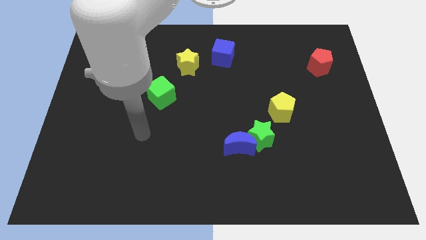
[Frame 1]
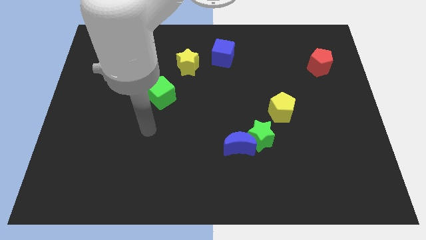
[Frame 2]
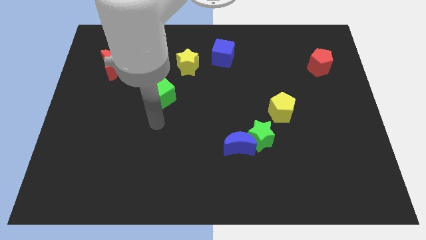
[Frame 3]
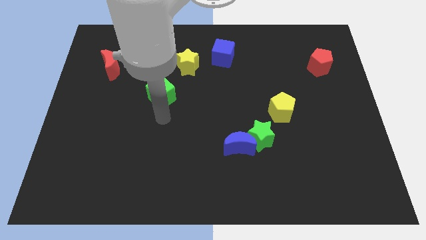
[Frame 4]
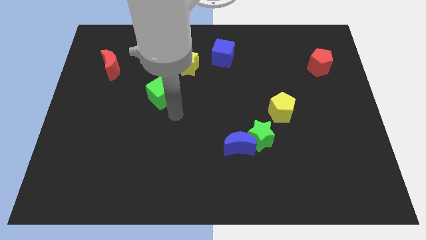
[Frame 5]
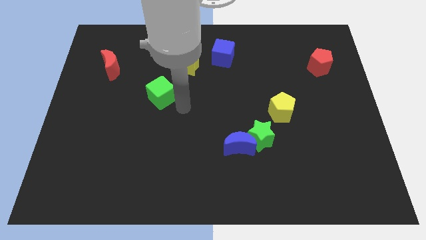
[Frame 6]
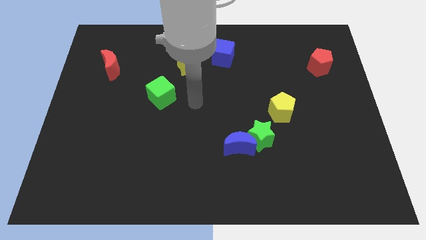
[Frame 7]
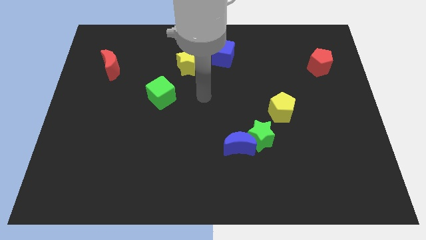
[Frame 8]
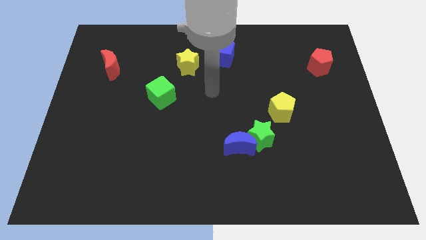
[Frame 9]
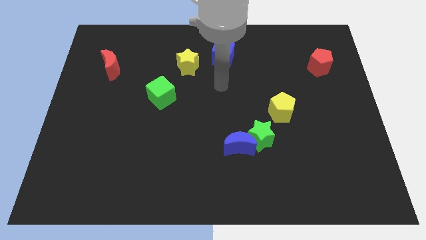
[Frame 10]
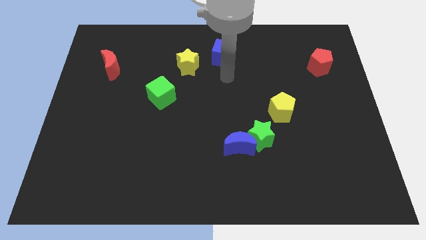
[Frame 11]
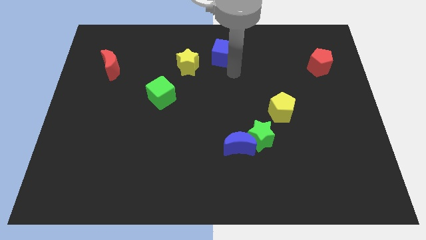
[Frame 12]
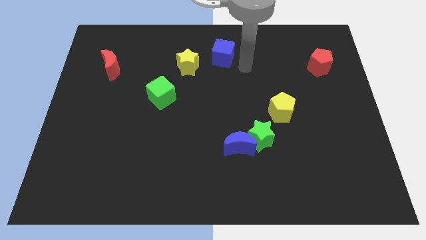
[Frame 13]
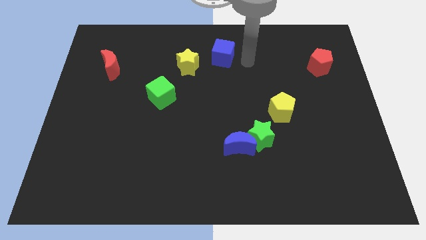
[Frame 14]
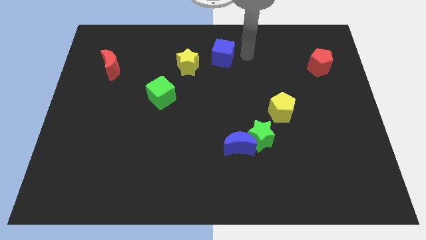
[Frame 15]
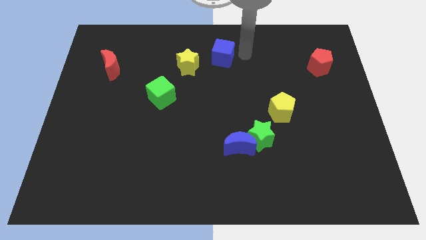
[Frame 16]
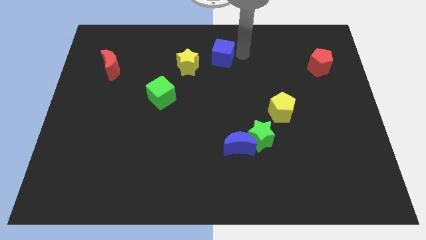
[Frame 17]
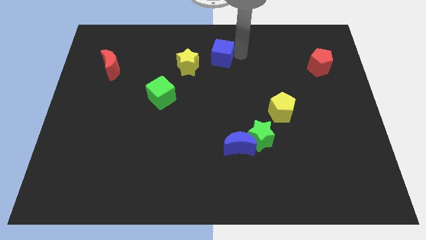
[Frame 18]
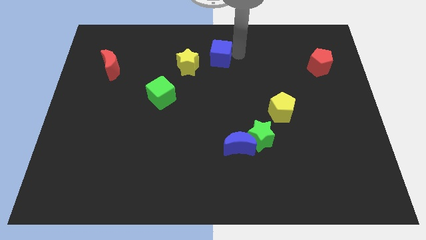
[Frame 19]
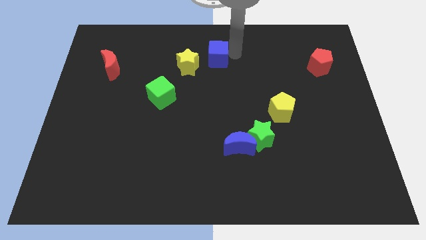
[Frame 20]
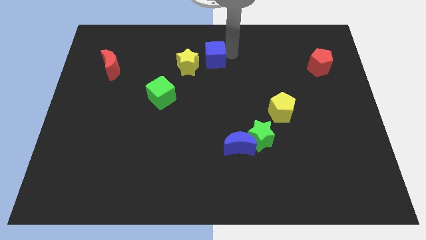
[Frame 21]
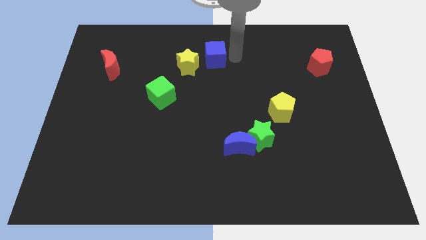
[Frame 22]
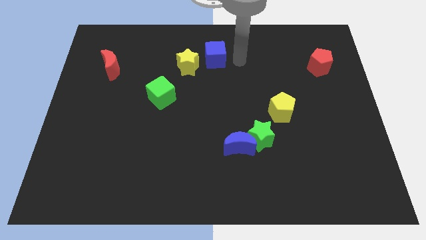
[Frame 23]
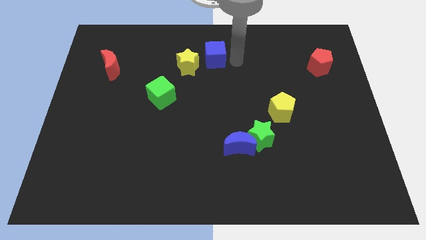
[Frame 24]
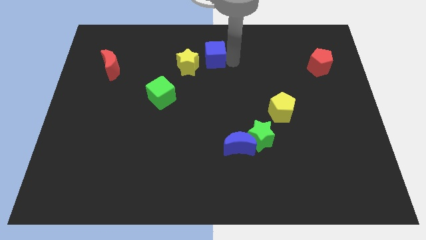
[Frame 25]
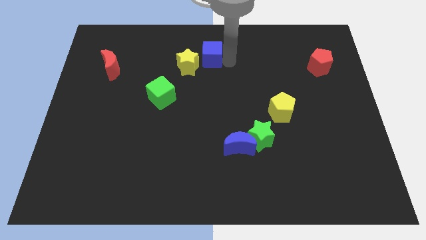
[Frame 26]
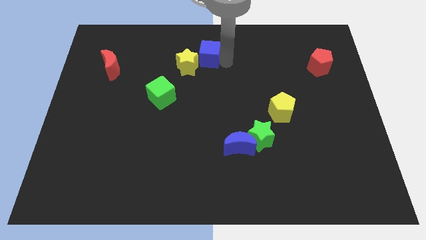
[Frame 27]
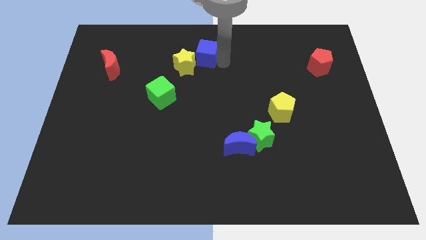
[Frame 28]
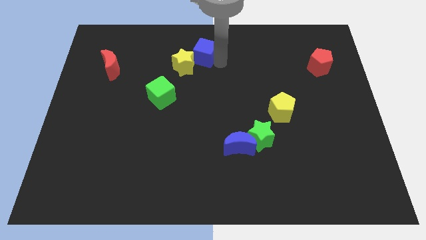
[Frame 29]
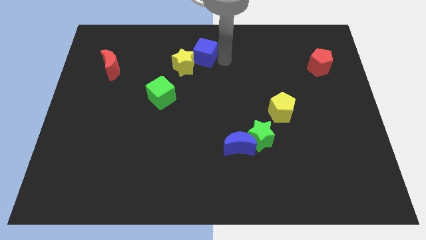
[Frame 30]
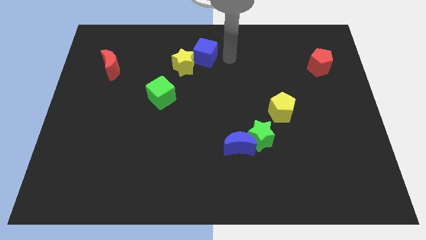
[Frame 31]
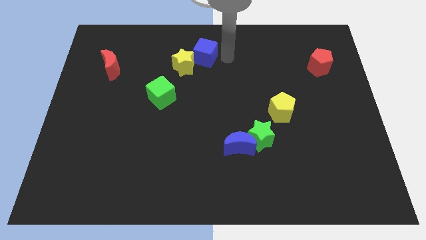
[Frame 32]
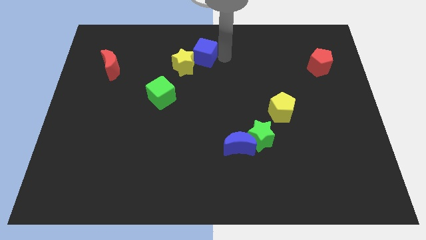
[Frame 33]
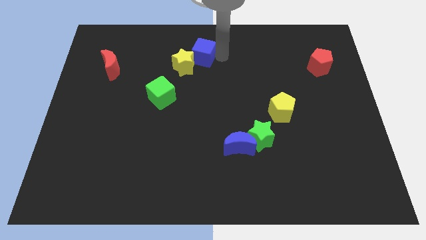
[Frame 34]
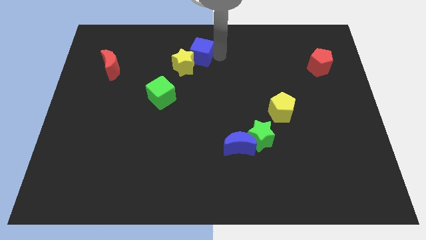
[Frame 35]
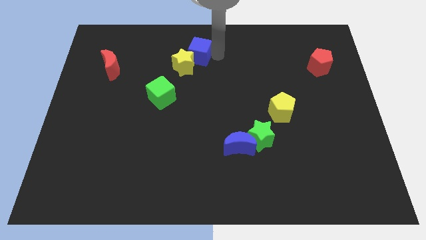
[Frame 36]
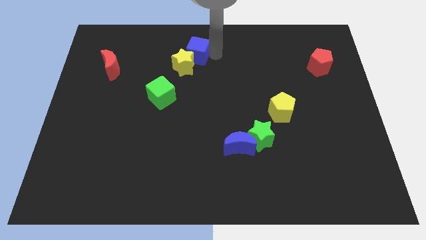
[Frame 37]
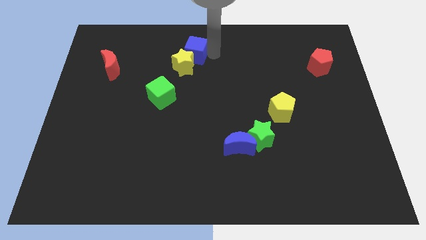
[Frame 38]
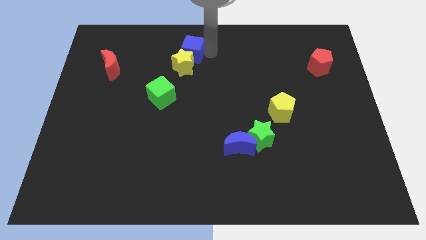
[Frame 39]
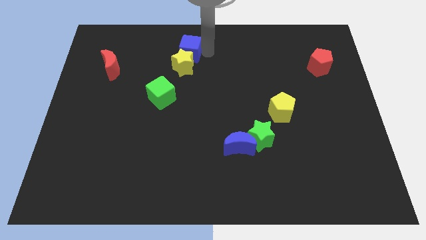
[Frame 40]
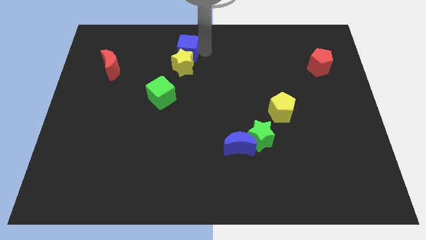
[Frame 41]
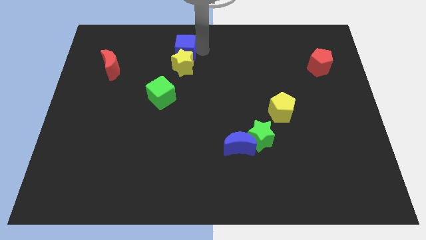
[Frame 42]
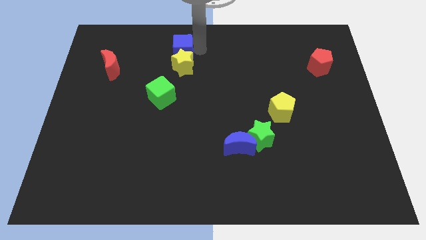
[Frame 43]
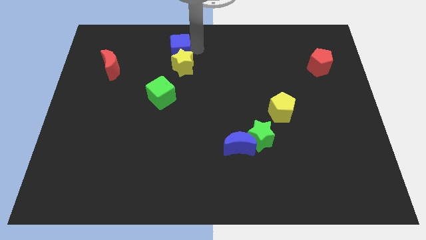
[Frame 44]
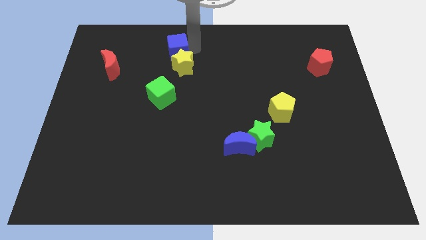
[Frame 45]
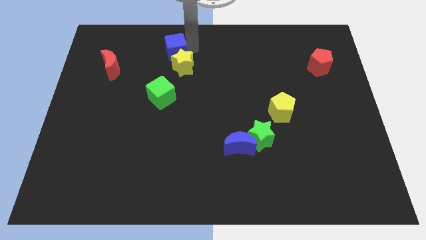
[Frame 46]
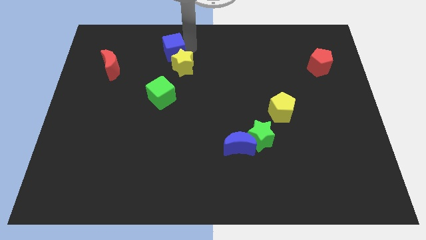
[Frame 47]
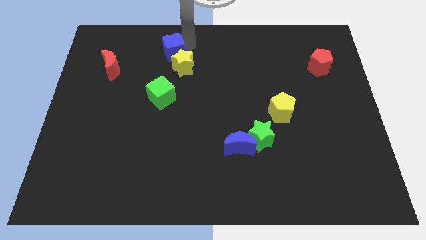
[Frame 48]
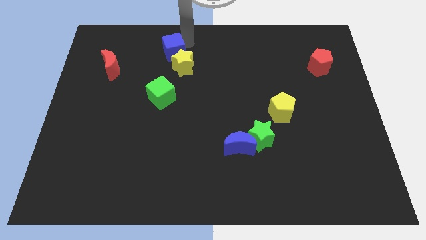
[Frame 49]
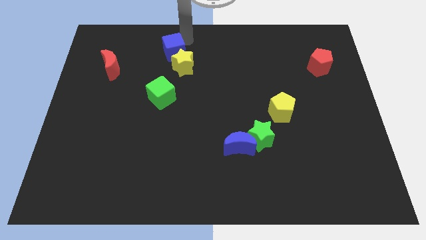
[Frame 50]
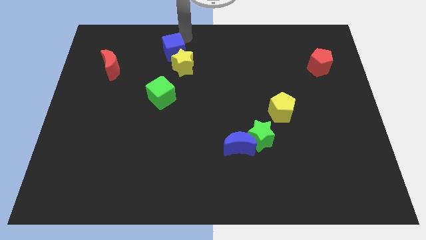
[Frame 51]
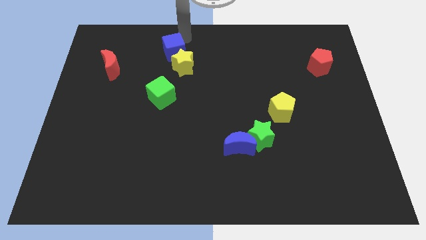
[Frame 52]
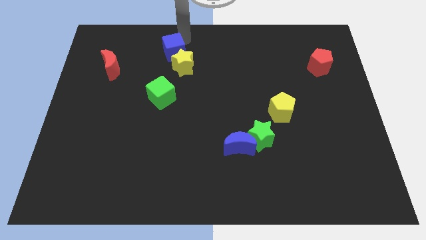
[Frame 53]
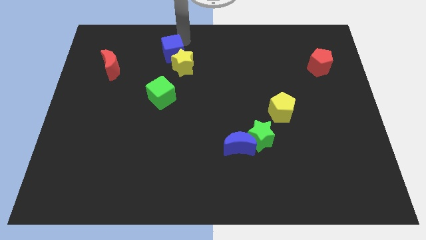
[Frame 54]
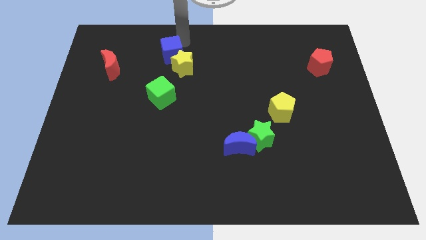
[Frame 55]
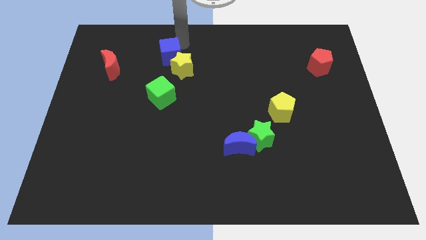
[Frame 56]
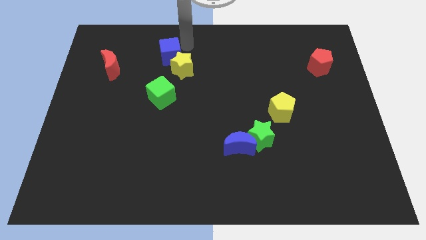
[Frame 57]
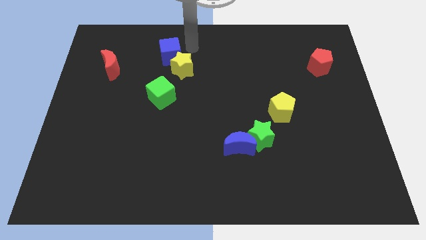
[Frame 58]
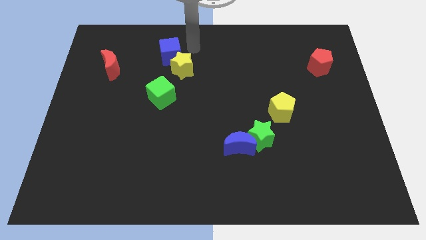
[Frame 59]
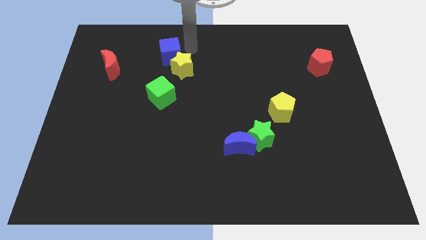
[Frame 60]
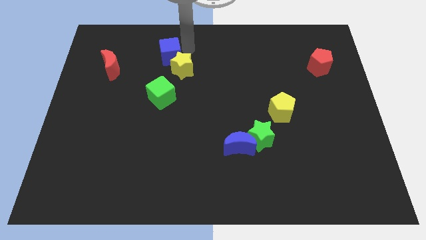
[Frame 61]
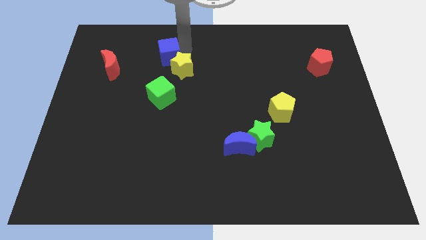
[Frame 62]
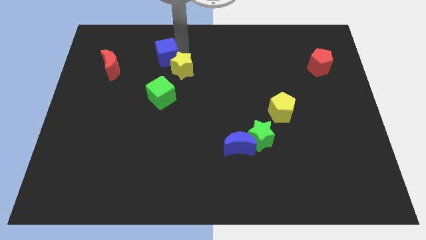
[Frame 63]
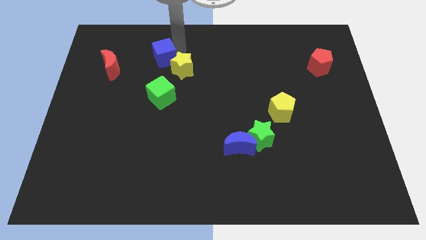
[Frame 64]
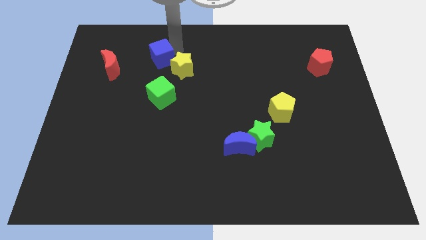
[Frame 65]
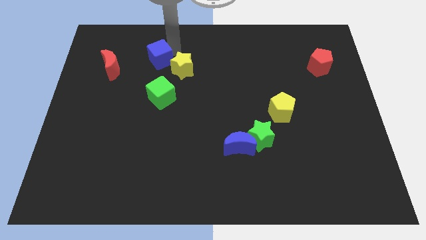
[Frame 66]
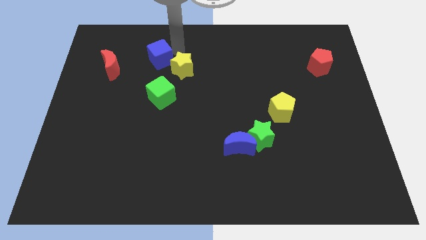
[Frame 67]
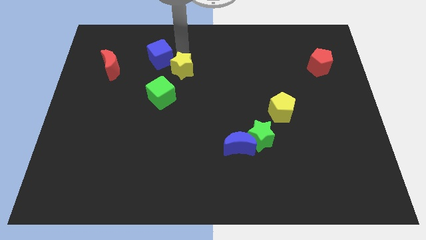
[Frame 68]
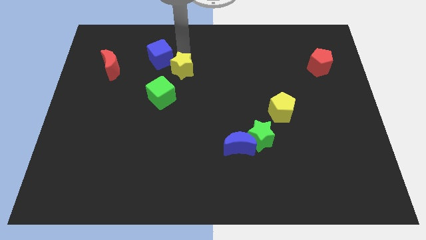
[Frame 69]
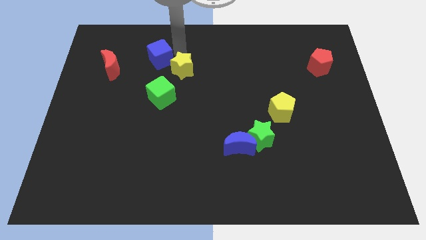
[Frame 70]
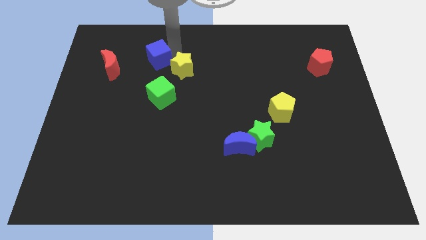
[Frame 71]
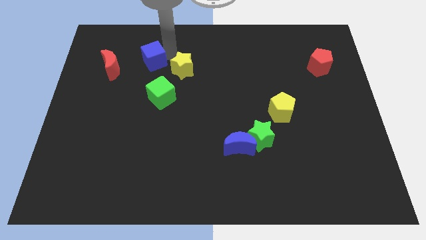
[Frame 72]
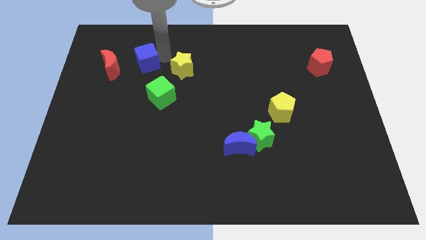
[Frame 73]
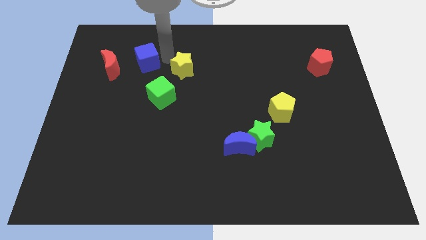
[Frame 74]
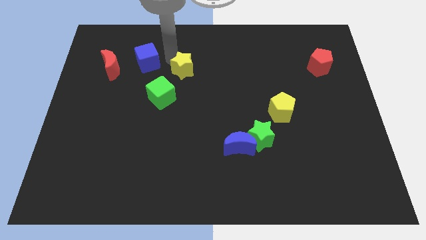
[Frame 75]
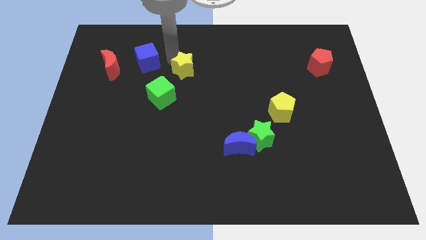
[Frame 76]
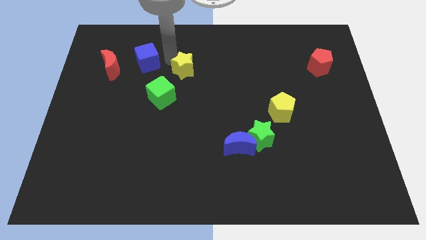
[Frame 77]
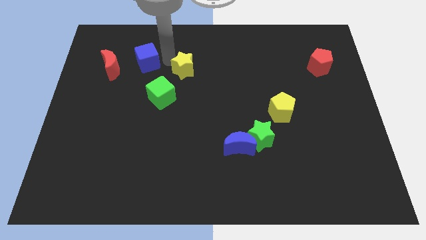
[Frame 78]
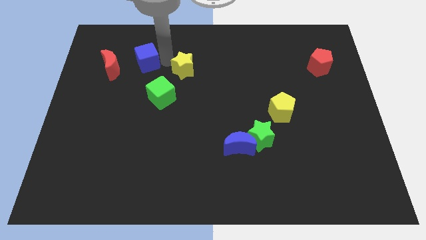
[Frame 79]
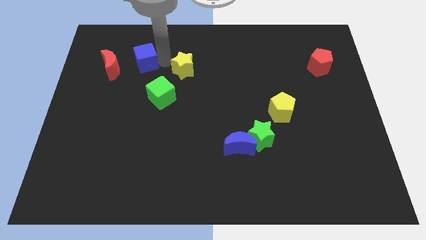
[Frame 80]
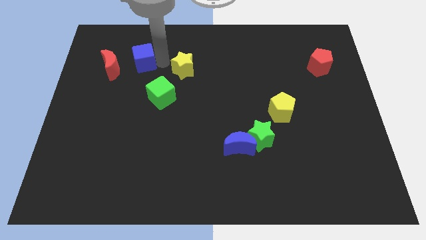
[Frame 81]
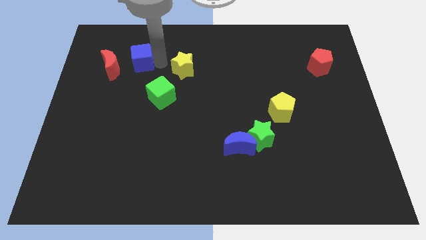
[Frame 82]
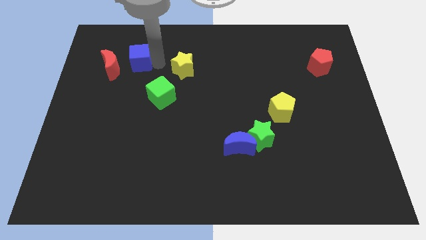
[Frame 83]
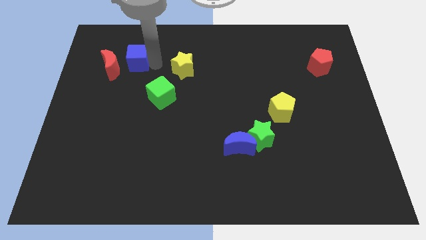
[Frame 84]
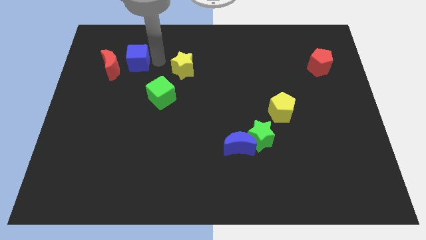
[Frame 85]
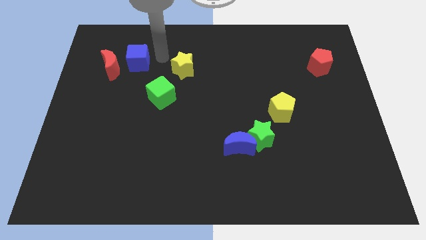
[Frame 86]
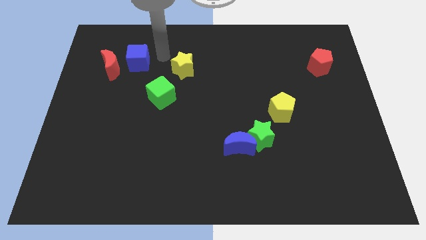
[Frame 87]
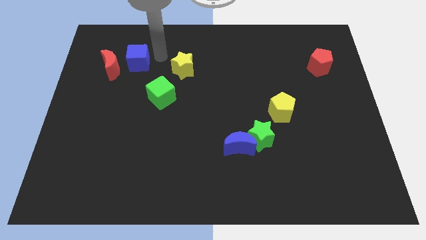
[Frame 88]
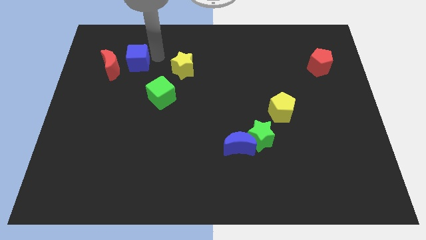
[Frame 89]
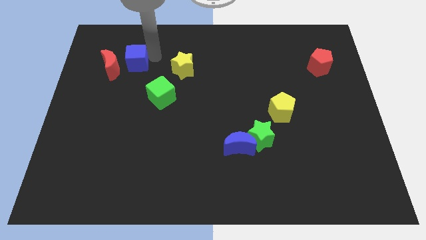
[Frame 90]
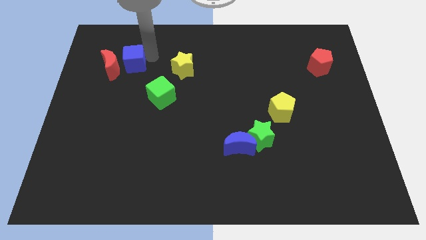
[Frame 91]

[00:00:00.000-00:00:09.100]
move the blue cube close to the red moon
